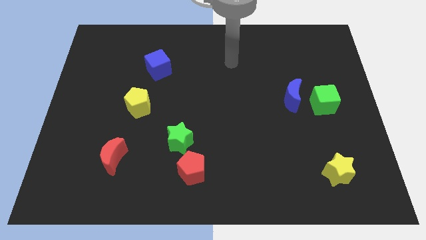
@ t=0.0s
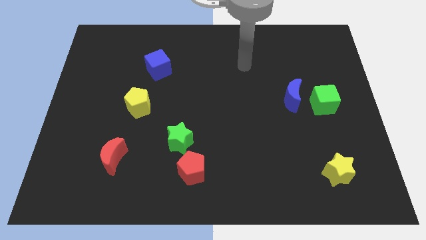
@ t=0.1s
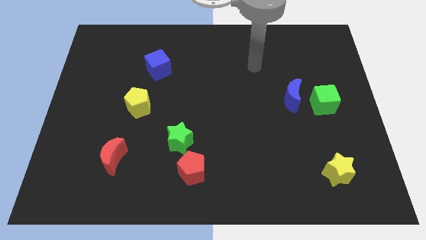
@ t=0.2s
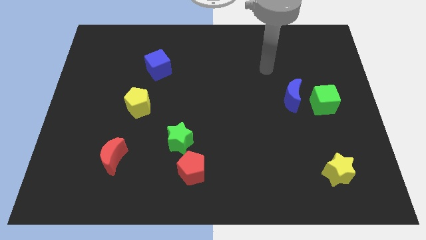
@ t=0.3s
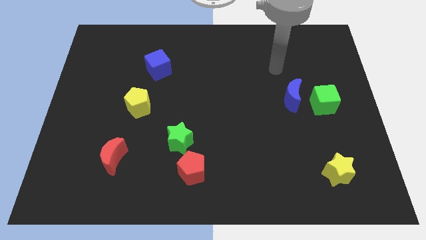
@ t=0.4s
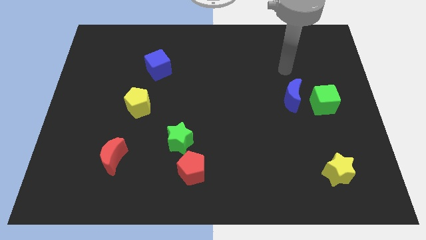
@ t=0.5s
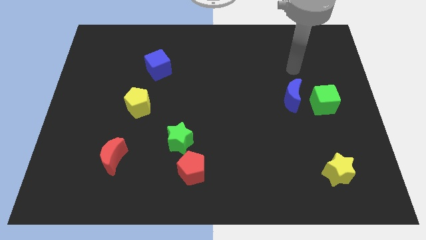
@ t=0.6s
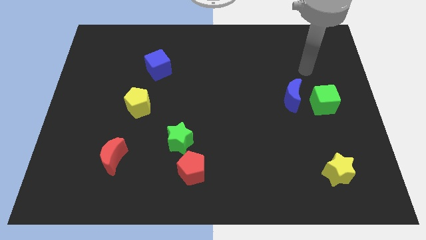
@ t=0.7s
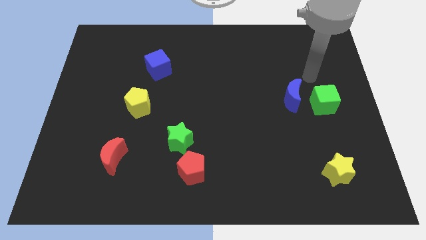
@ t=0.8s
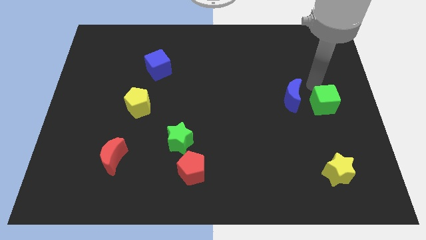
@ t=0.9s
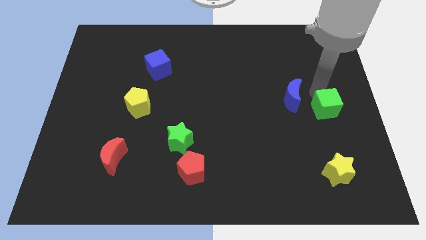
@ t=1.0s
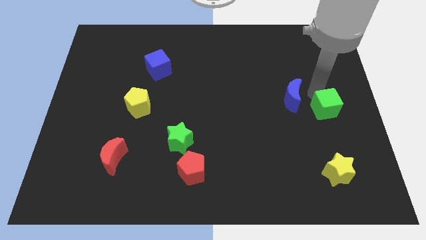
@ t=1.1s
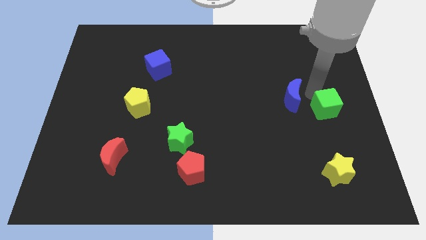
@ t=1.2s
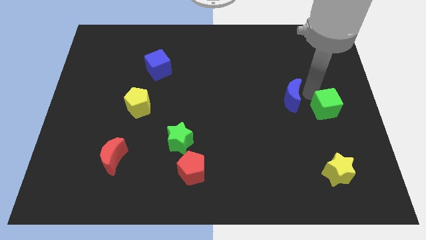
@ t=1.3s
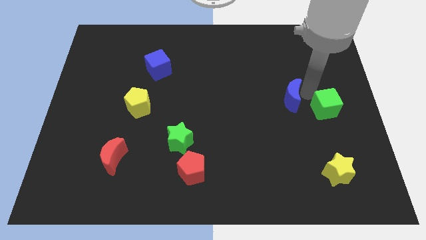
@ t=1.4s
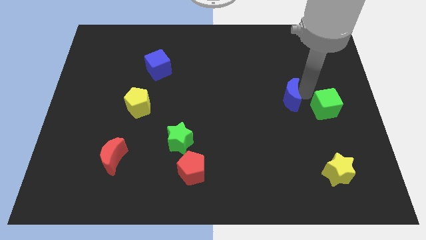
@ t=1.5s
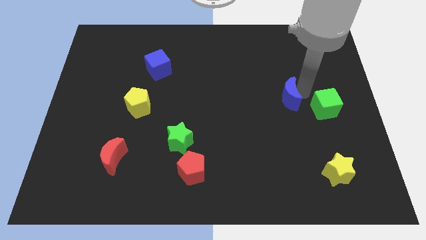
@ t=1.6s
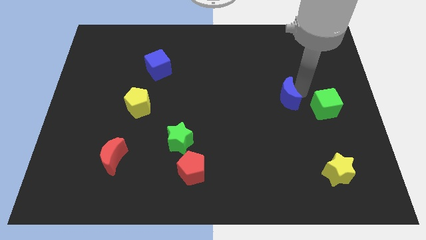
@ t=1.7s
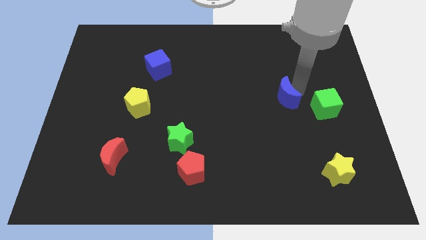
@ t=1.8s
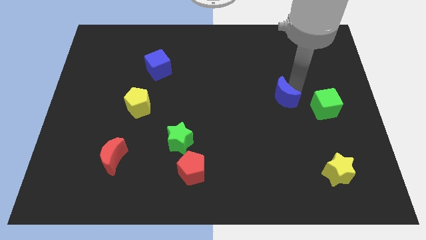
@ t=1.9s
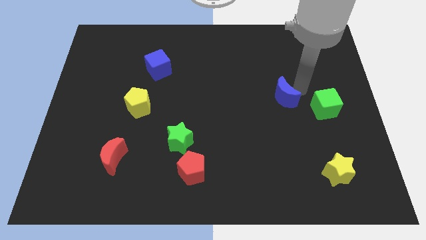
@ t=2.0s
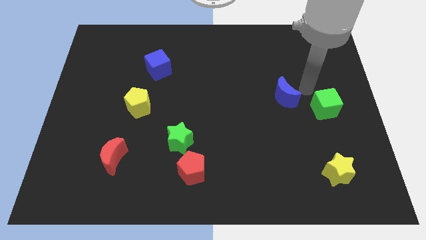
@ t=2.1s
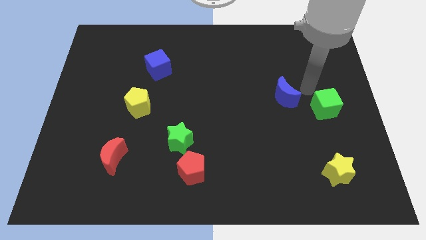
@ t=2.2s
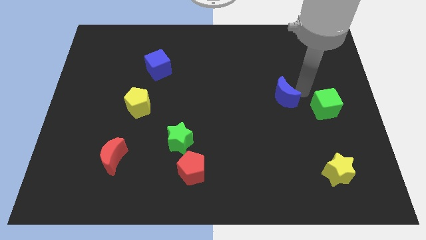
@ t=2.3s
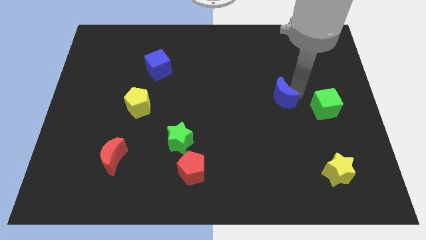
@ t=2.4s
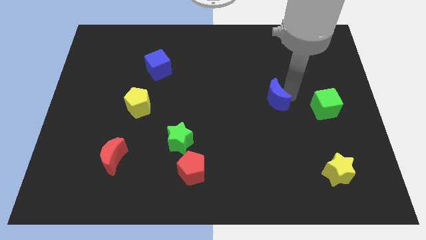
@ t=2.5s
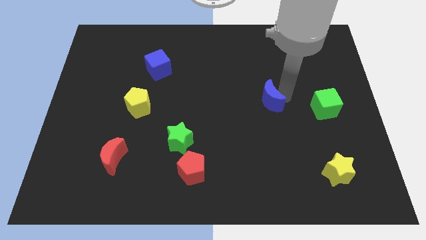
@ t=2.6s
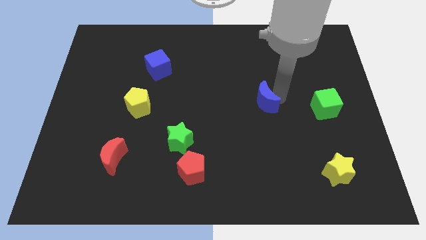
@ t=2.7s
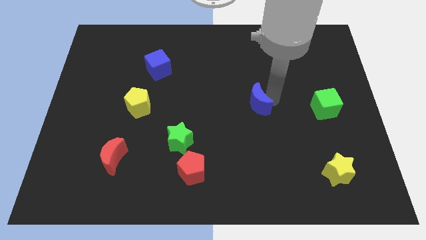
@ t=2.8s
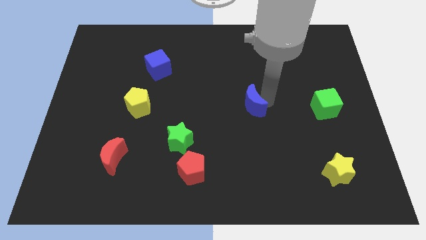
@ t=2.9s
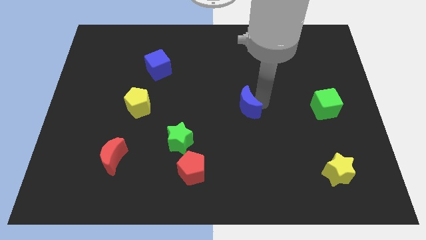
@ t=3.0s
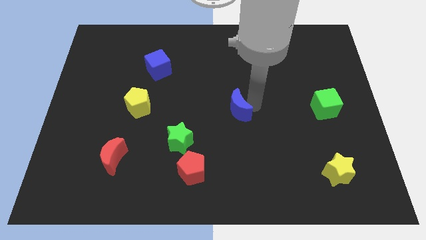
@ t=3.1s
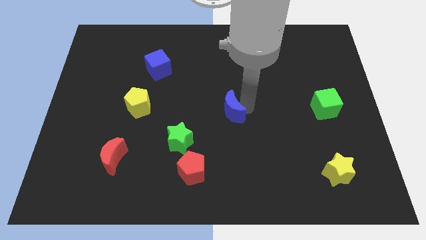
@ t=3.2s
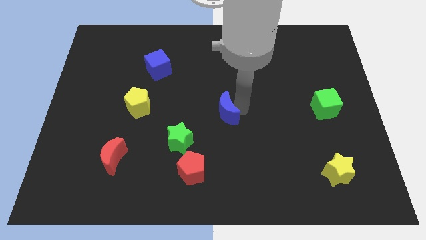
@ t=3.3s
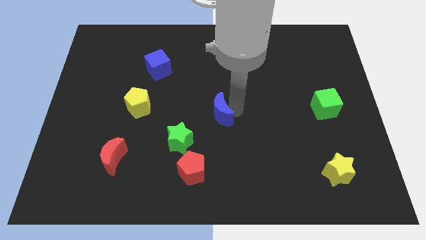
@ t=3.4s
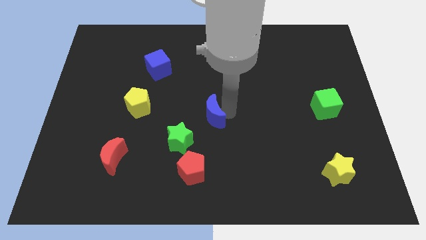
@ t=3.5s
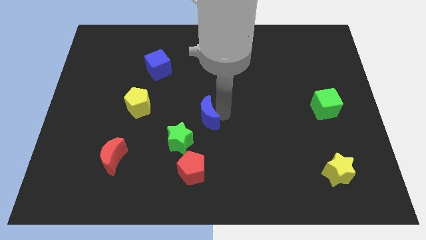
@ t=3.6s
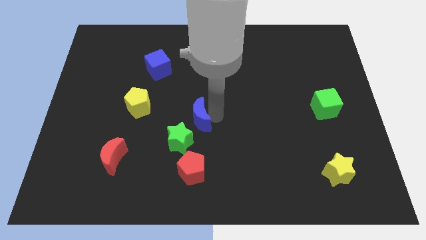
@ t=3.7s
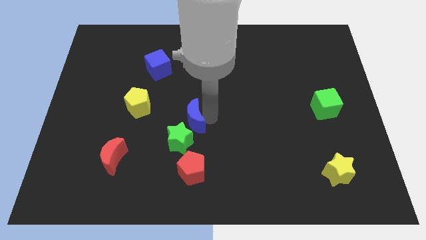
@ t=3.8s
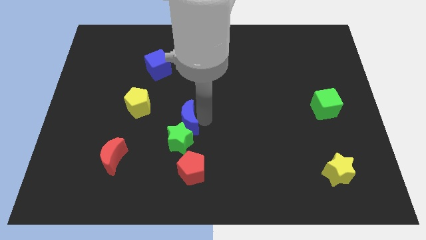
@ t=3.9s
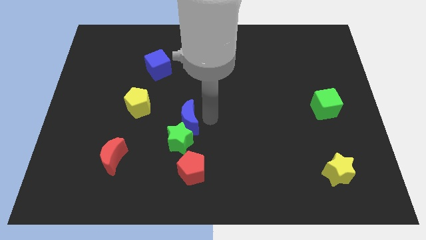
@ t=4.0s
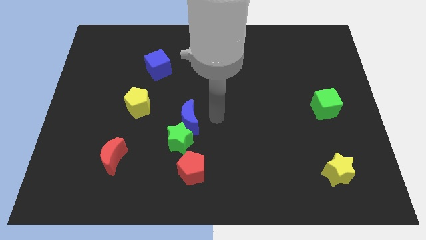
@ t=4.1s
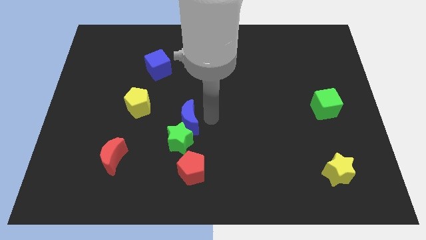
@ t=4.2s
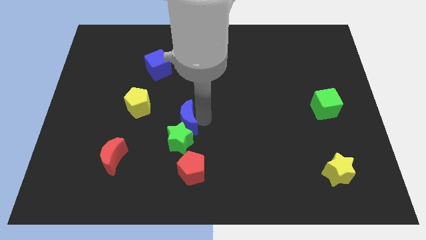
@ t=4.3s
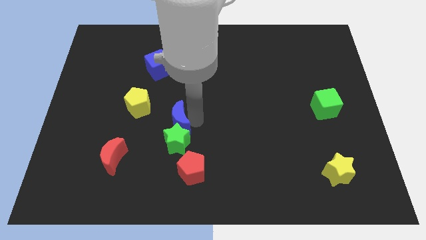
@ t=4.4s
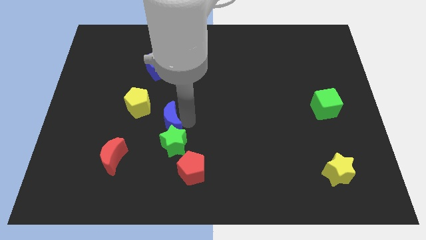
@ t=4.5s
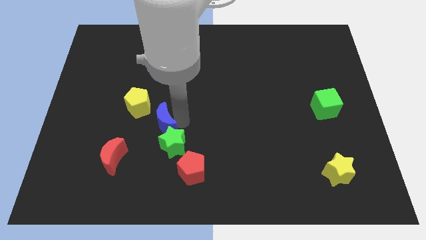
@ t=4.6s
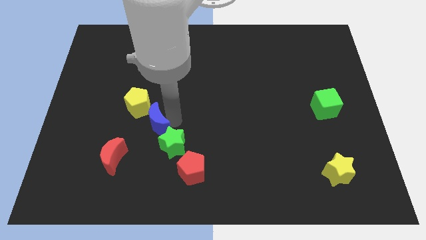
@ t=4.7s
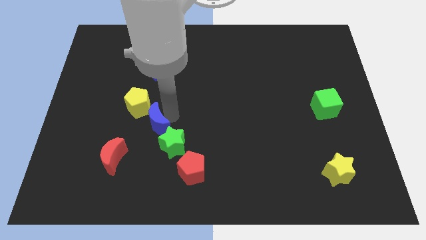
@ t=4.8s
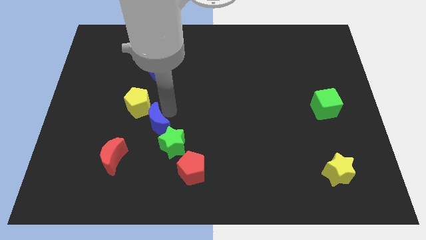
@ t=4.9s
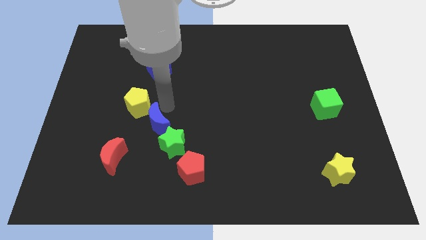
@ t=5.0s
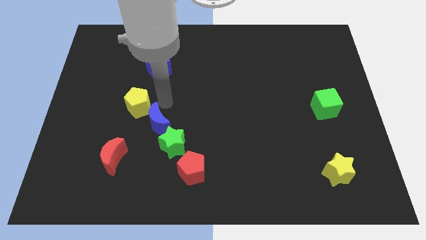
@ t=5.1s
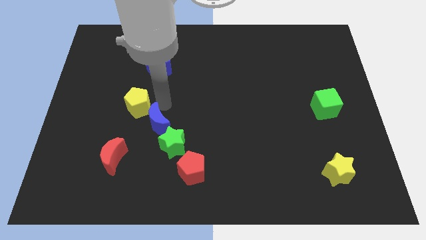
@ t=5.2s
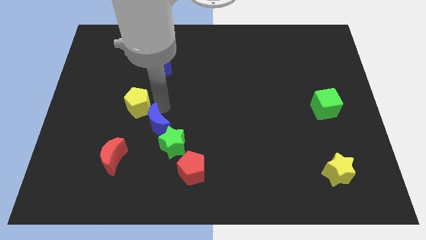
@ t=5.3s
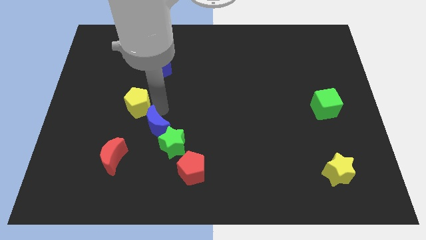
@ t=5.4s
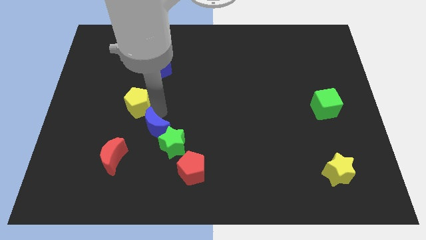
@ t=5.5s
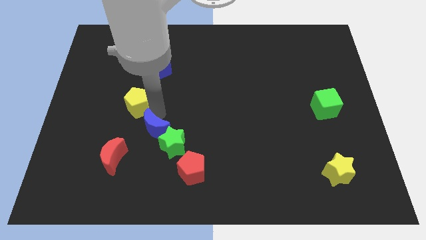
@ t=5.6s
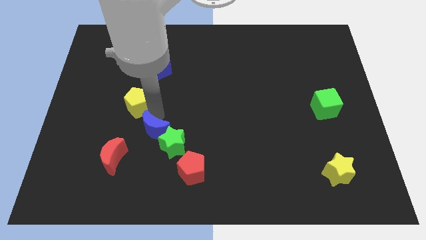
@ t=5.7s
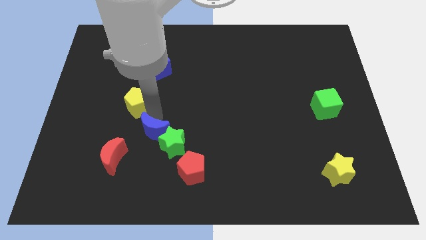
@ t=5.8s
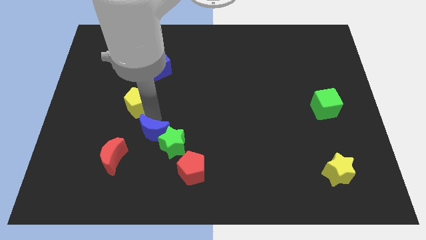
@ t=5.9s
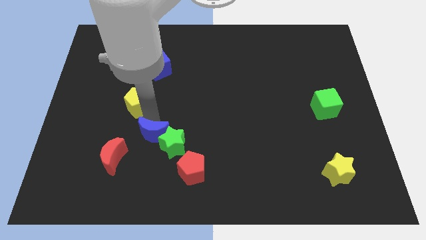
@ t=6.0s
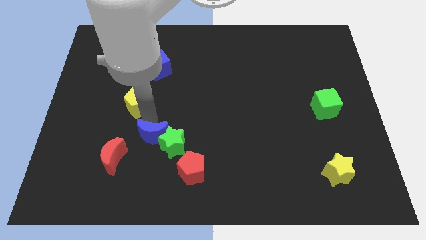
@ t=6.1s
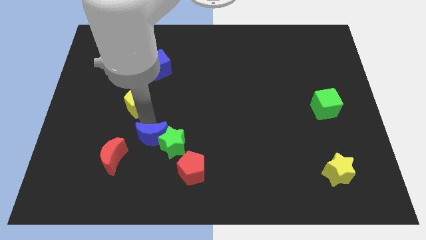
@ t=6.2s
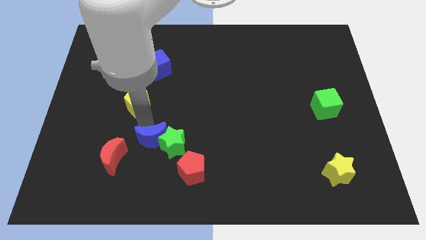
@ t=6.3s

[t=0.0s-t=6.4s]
slide the blue moon to the right side of the red moon

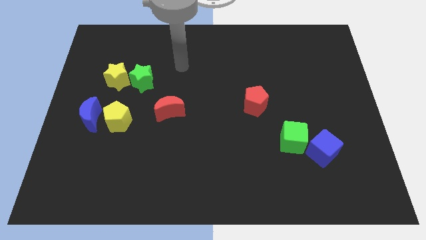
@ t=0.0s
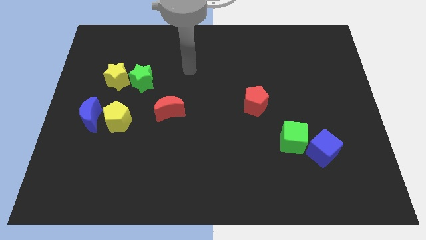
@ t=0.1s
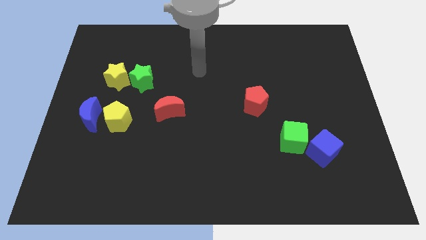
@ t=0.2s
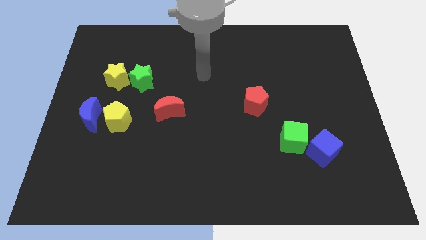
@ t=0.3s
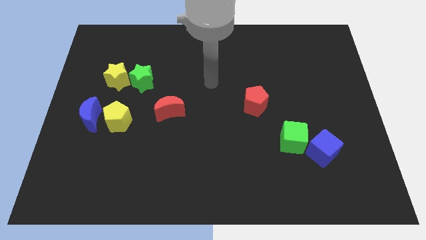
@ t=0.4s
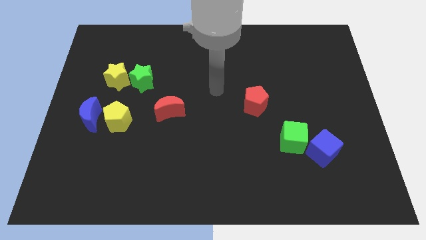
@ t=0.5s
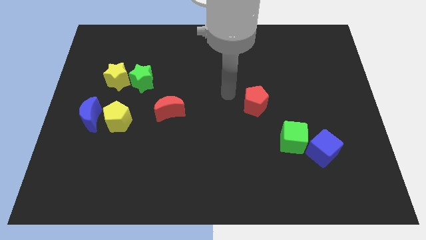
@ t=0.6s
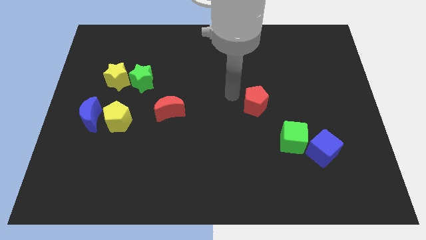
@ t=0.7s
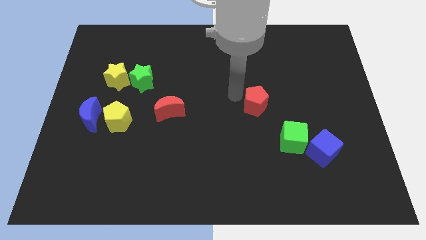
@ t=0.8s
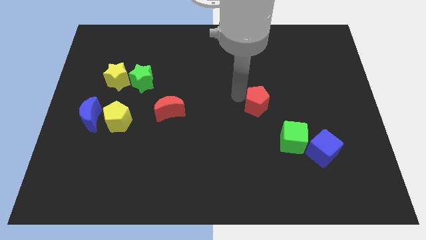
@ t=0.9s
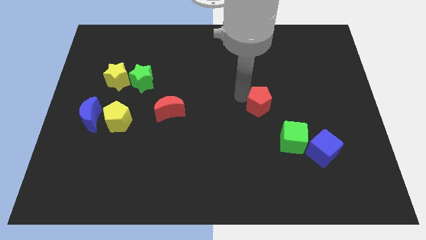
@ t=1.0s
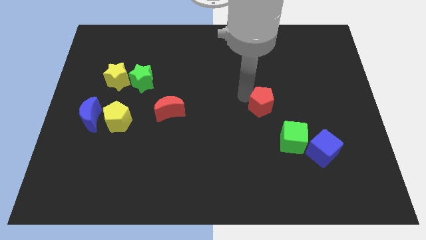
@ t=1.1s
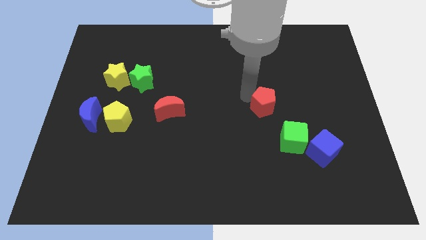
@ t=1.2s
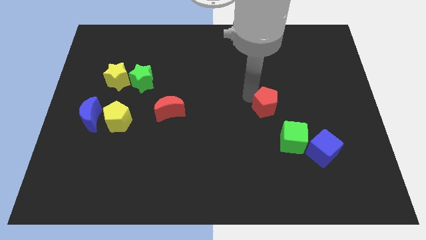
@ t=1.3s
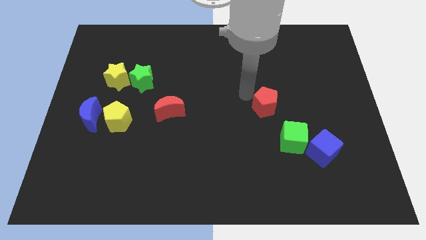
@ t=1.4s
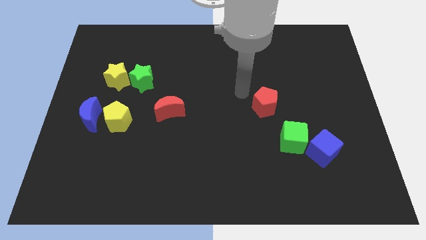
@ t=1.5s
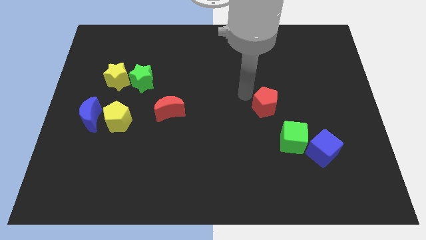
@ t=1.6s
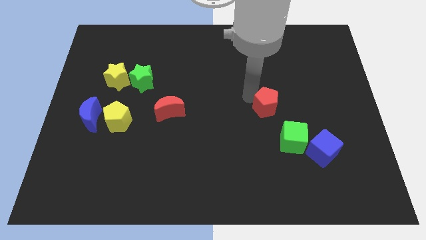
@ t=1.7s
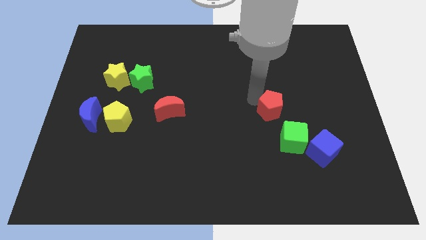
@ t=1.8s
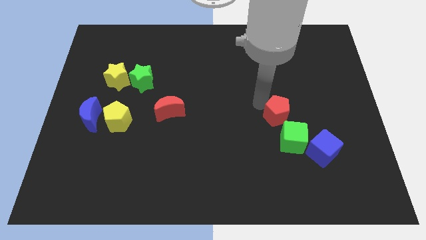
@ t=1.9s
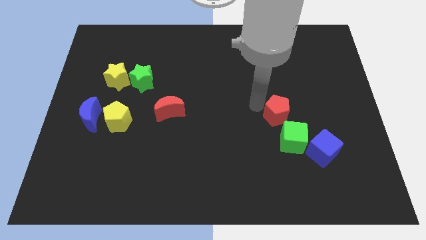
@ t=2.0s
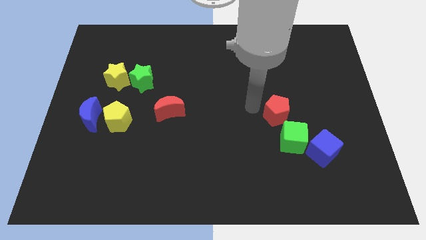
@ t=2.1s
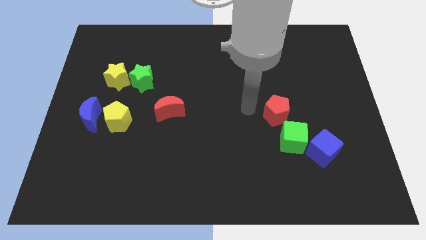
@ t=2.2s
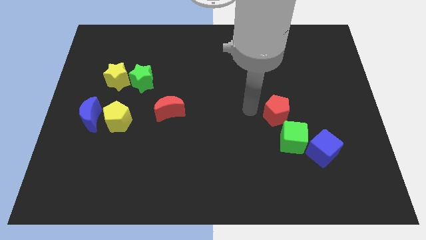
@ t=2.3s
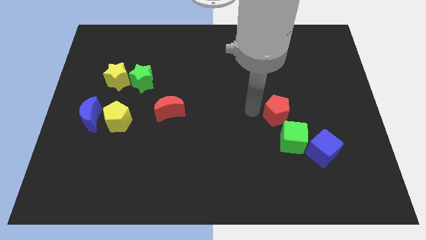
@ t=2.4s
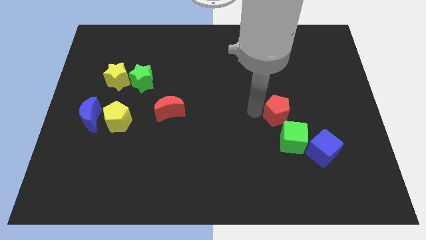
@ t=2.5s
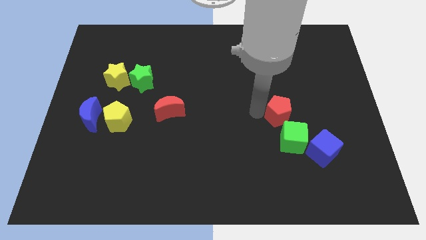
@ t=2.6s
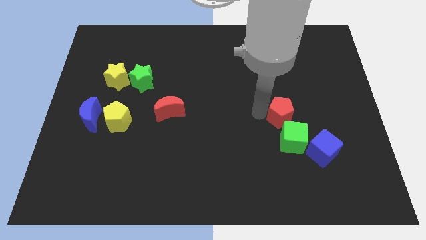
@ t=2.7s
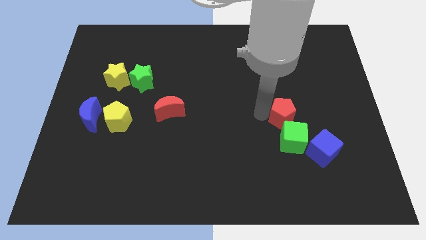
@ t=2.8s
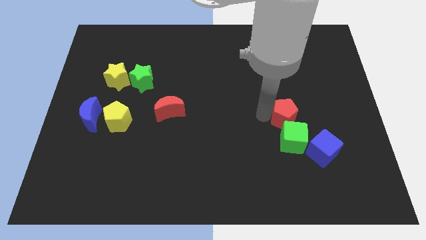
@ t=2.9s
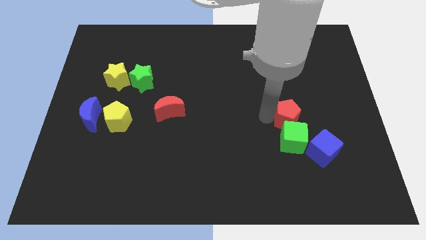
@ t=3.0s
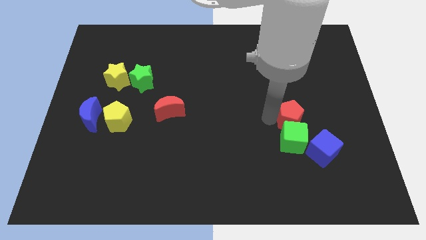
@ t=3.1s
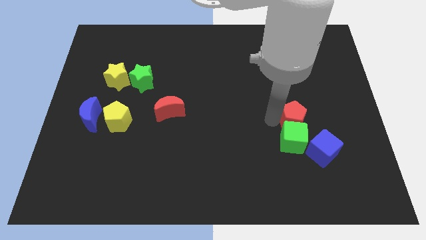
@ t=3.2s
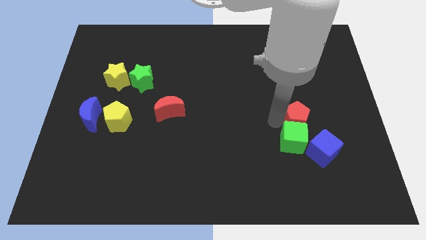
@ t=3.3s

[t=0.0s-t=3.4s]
put the red pentagon to the top of the blue cube
